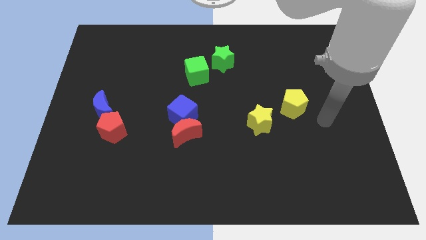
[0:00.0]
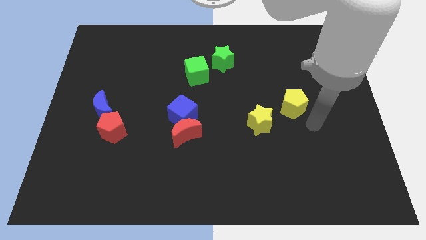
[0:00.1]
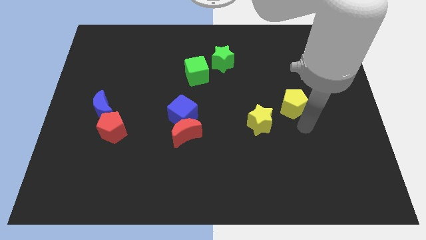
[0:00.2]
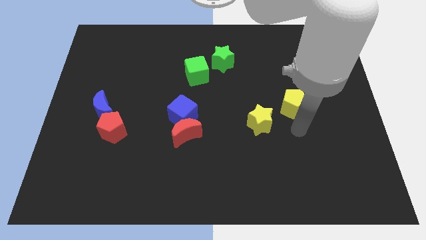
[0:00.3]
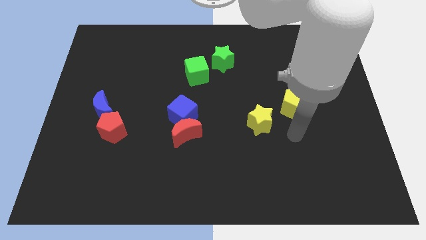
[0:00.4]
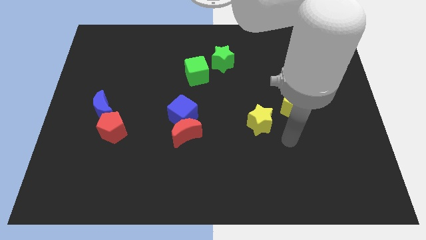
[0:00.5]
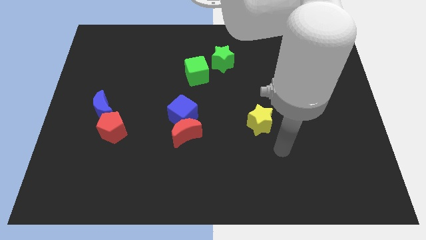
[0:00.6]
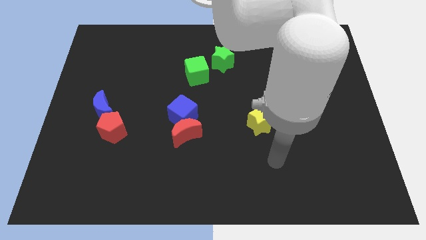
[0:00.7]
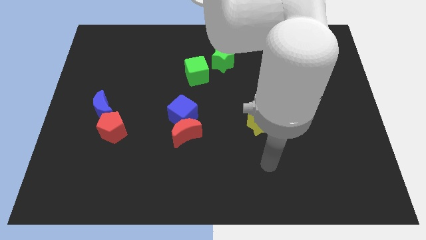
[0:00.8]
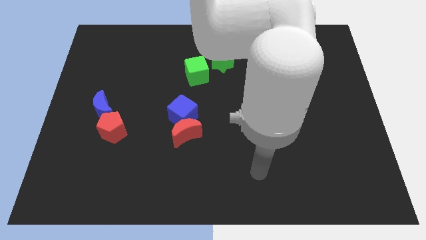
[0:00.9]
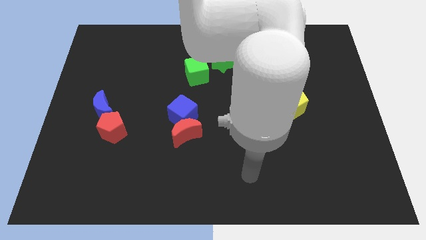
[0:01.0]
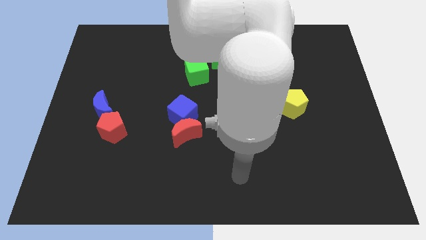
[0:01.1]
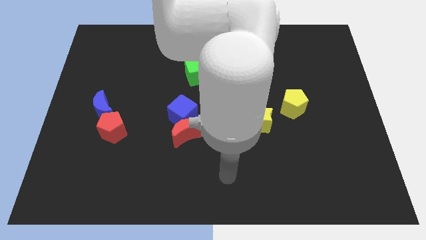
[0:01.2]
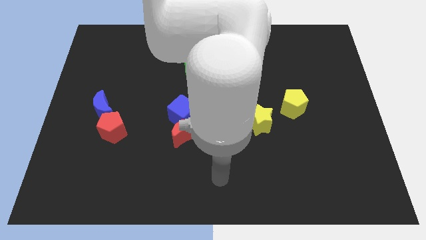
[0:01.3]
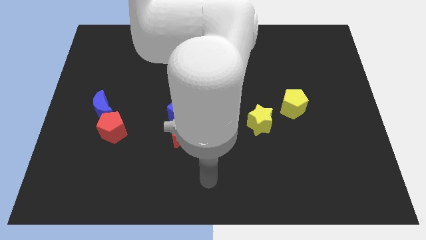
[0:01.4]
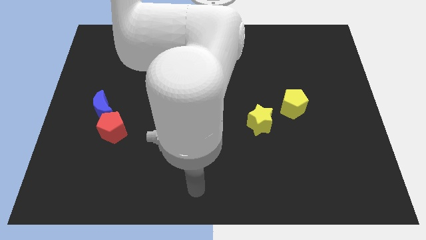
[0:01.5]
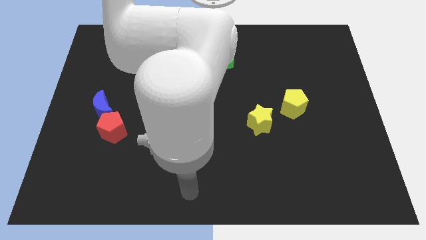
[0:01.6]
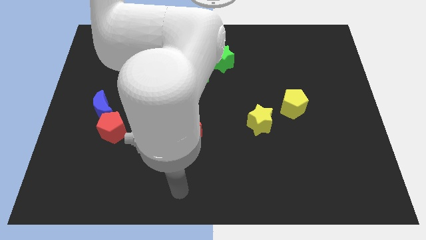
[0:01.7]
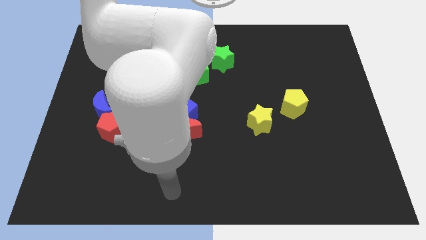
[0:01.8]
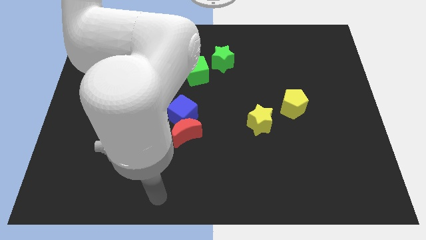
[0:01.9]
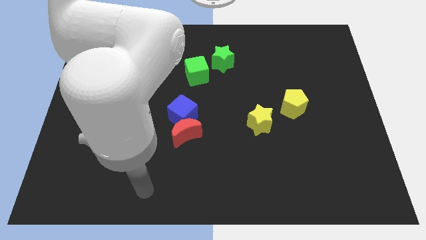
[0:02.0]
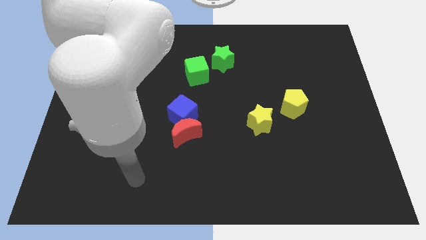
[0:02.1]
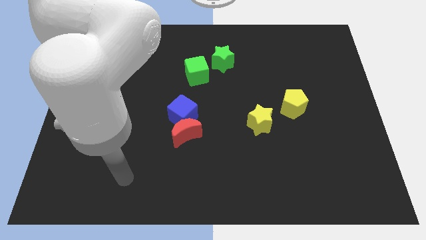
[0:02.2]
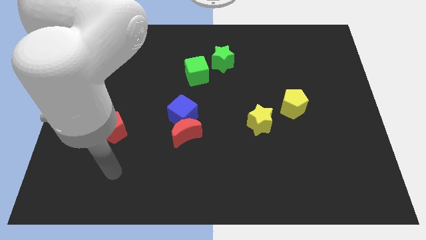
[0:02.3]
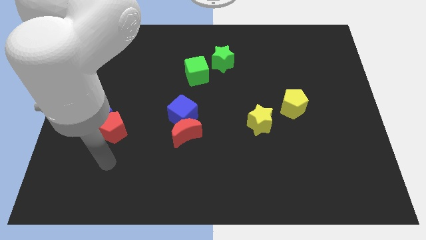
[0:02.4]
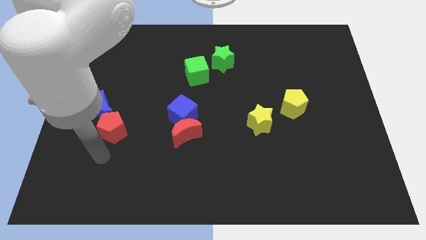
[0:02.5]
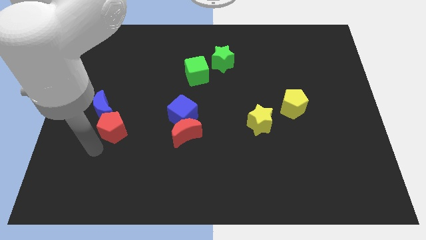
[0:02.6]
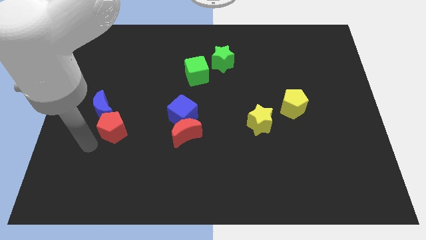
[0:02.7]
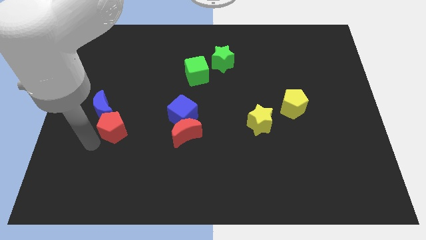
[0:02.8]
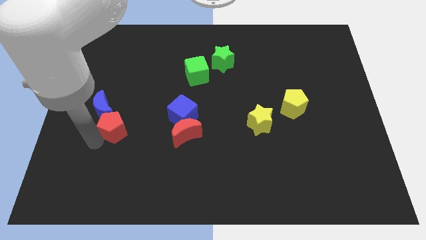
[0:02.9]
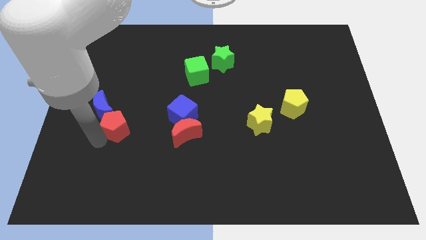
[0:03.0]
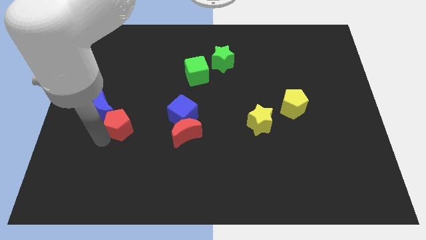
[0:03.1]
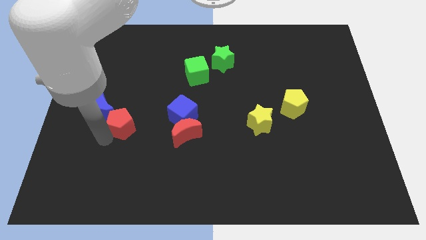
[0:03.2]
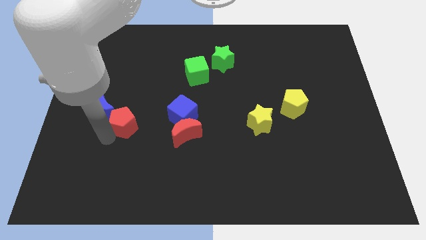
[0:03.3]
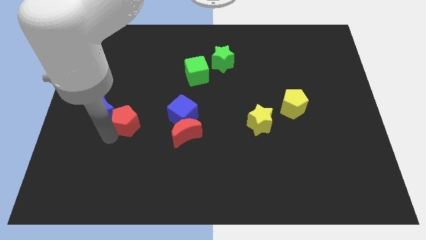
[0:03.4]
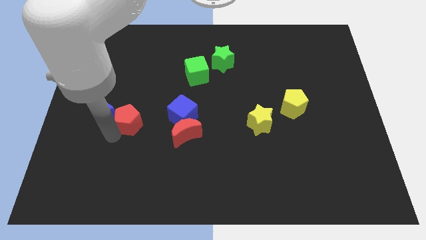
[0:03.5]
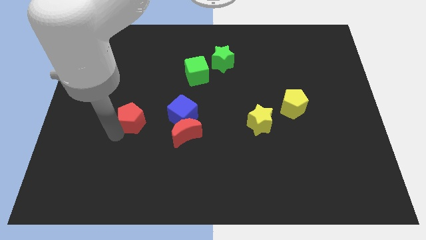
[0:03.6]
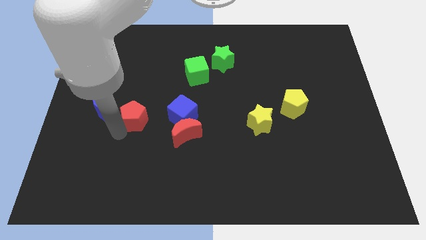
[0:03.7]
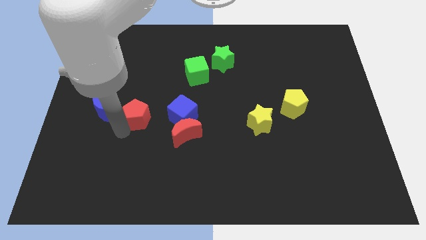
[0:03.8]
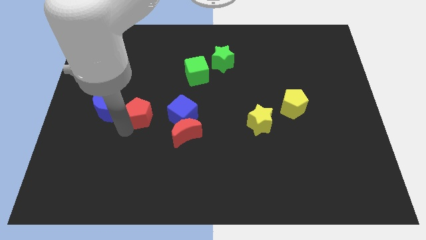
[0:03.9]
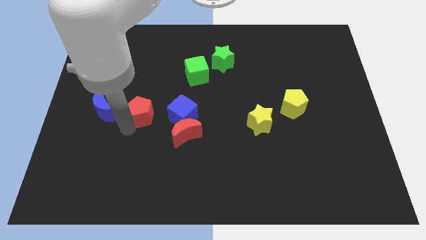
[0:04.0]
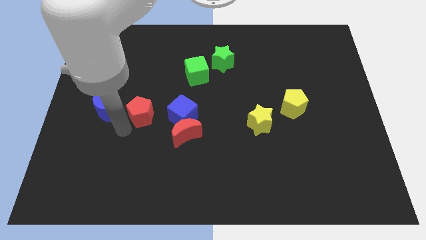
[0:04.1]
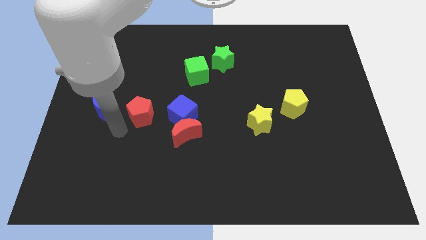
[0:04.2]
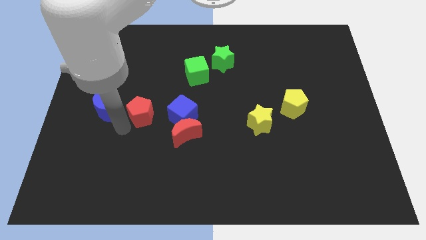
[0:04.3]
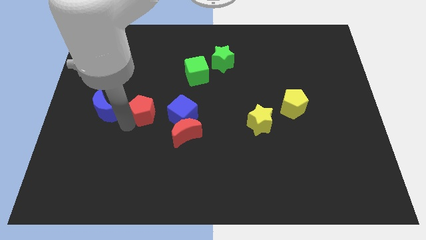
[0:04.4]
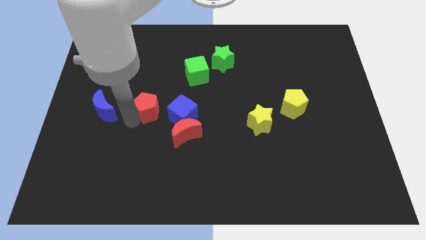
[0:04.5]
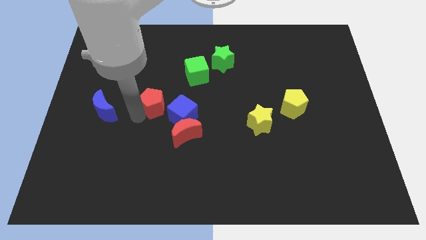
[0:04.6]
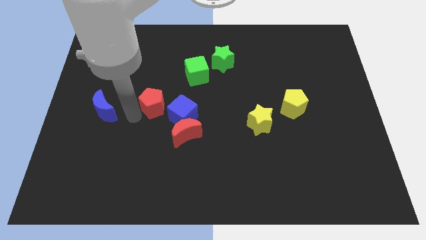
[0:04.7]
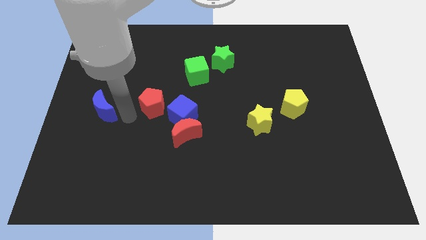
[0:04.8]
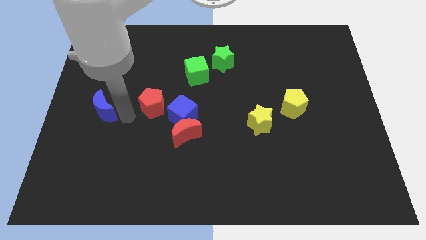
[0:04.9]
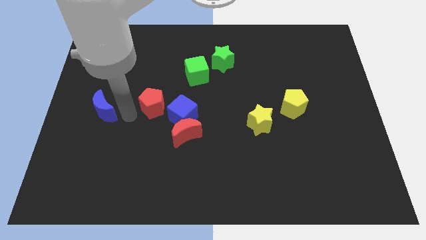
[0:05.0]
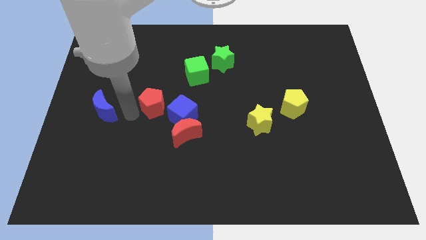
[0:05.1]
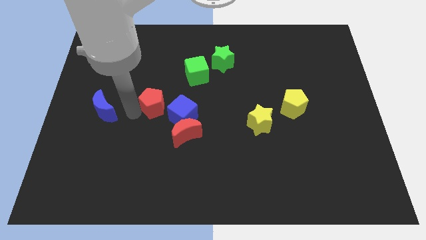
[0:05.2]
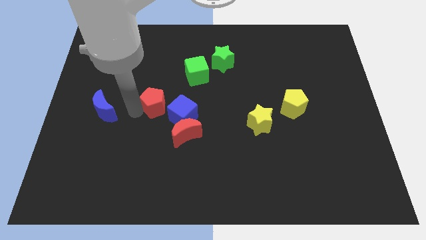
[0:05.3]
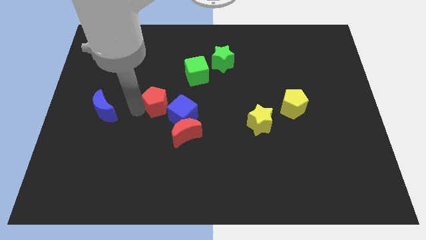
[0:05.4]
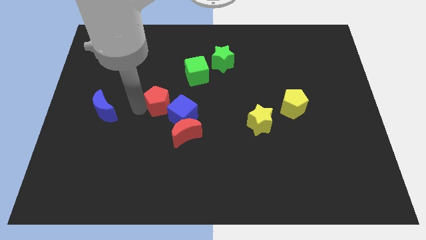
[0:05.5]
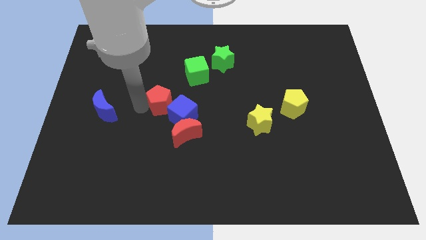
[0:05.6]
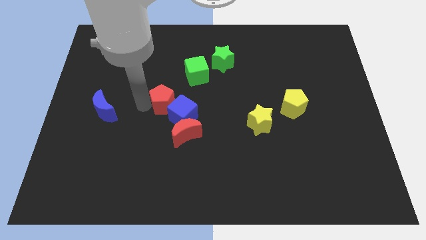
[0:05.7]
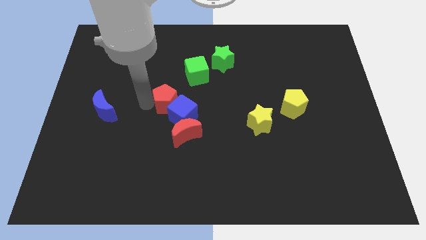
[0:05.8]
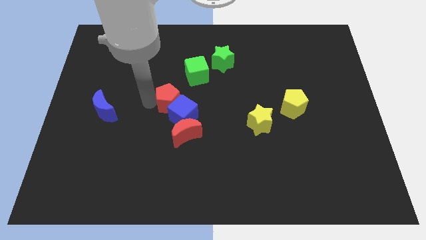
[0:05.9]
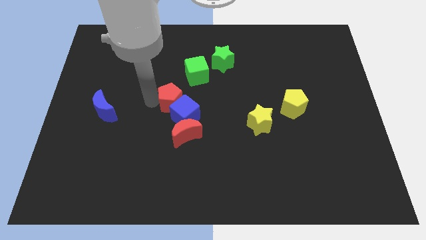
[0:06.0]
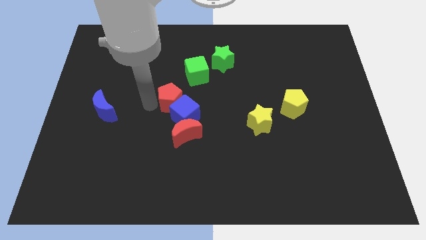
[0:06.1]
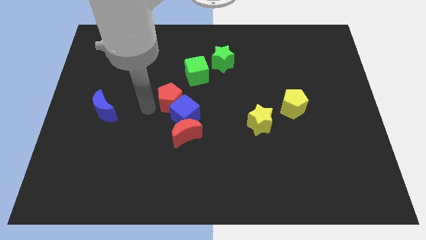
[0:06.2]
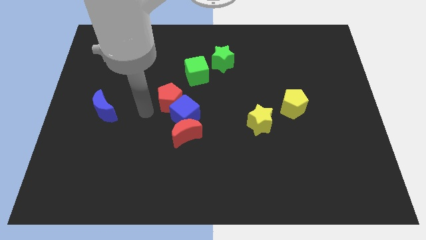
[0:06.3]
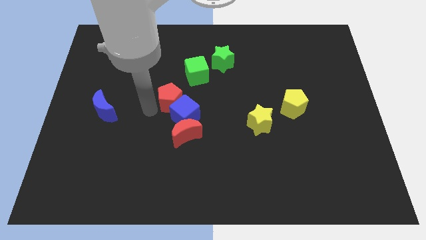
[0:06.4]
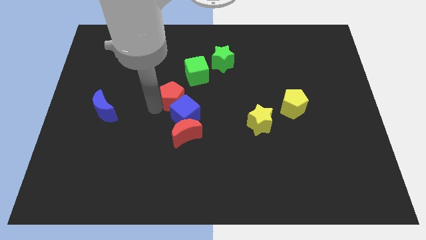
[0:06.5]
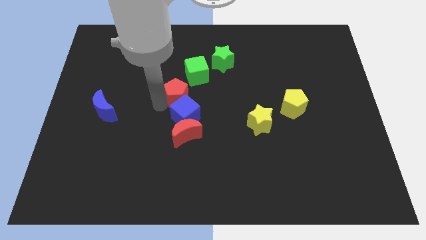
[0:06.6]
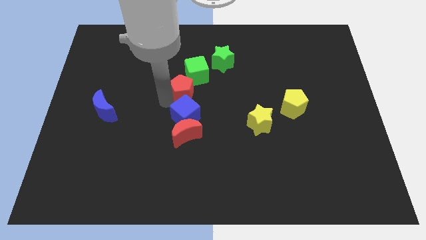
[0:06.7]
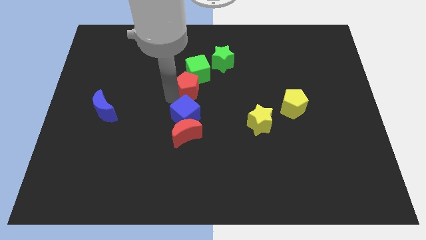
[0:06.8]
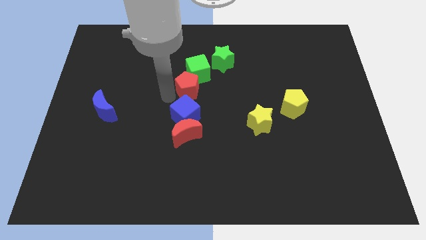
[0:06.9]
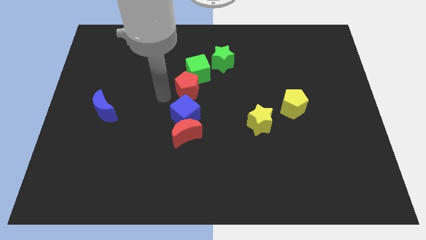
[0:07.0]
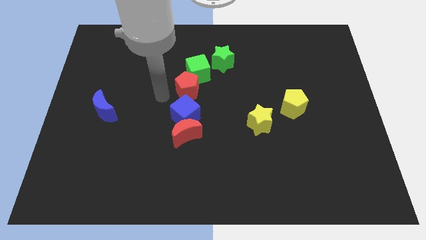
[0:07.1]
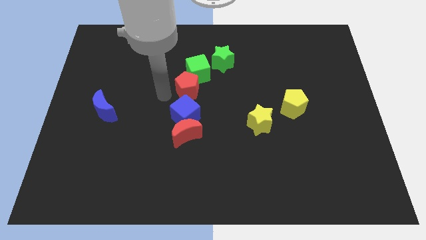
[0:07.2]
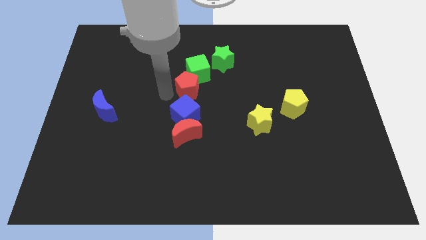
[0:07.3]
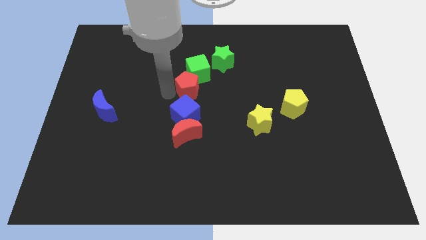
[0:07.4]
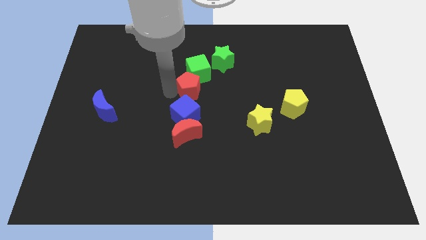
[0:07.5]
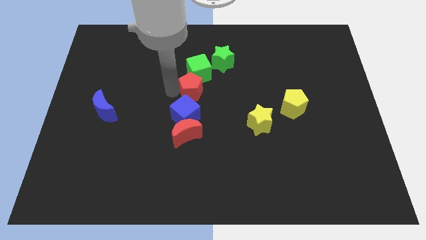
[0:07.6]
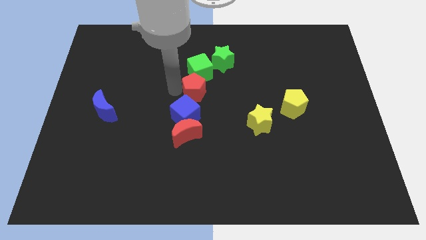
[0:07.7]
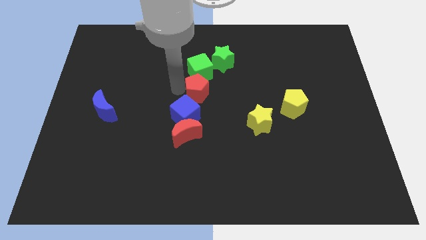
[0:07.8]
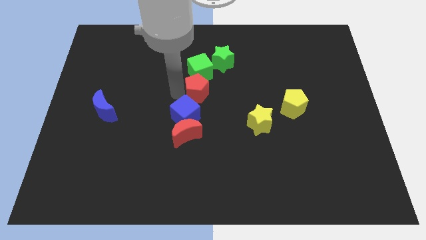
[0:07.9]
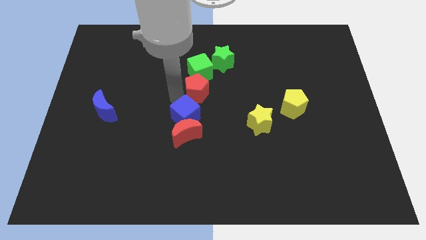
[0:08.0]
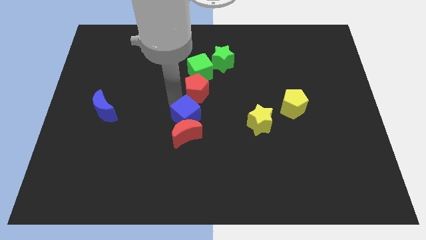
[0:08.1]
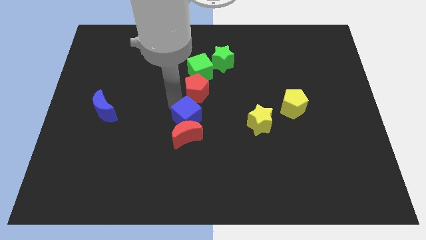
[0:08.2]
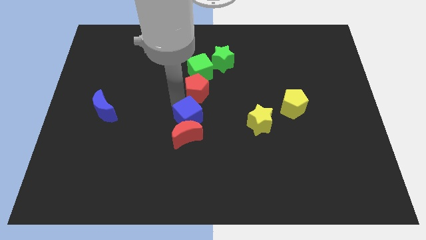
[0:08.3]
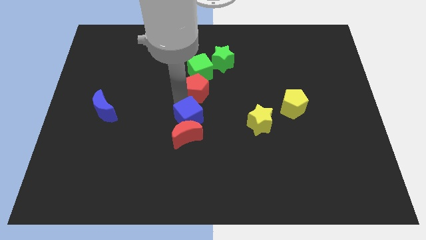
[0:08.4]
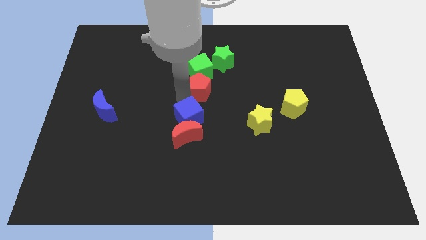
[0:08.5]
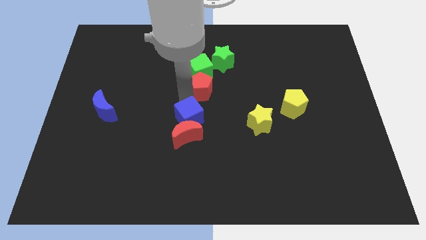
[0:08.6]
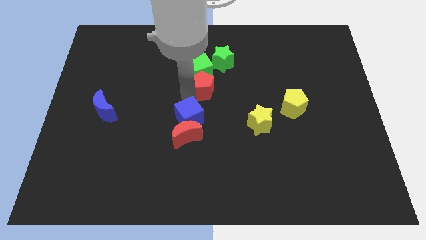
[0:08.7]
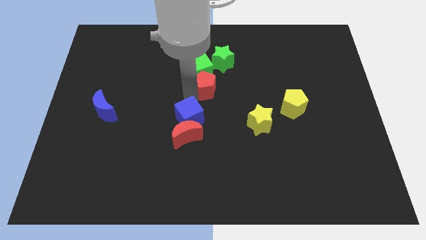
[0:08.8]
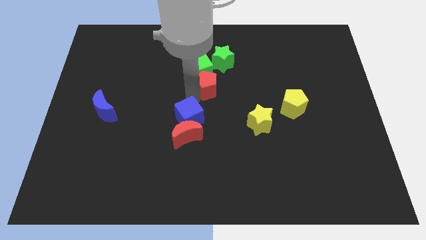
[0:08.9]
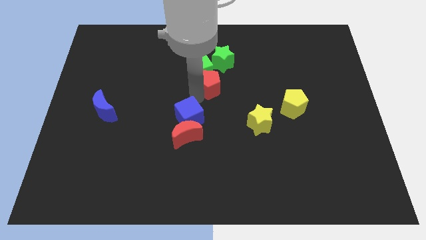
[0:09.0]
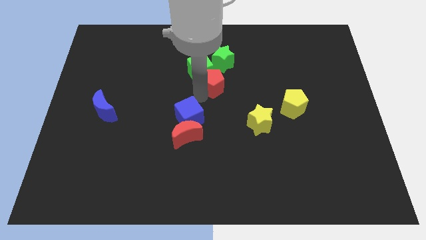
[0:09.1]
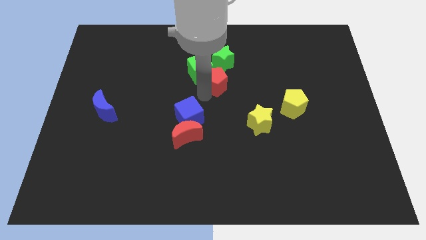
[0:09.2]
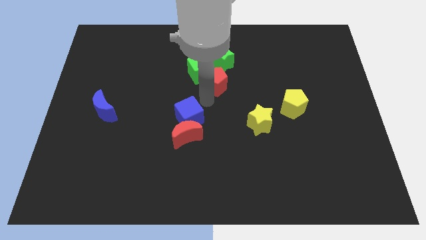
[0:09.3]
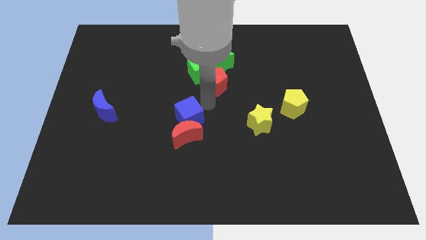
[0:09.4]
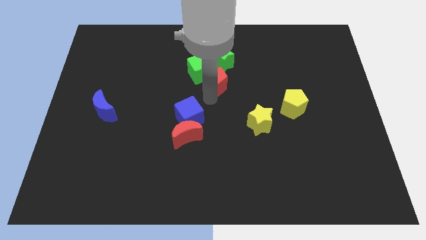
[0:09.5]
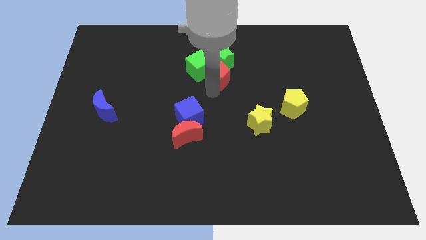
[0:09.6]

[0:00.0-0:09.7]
move the red pentagon next to the green star
